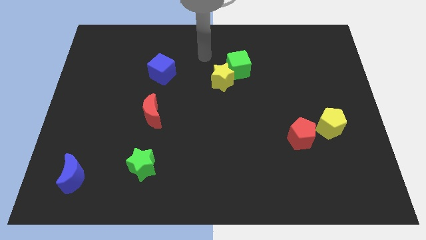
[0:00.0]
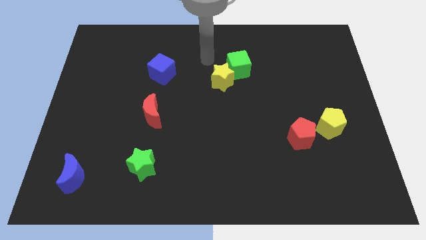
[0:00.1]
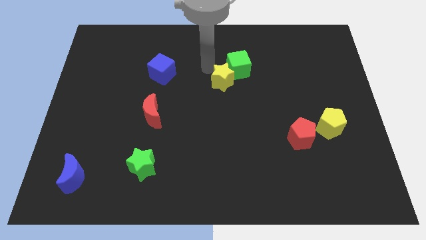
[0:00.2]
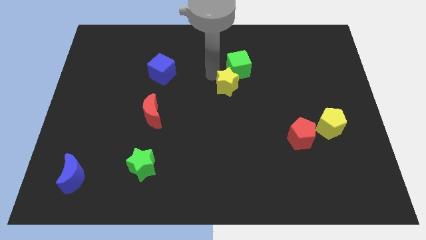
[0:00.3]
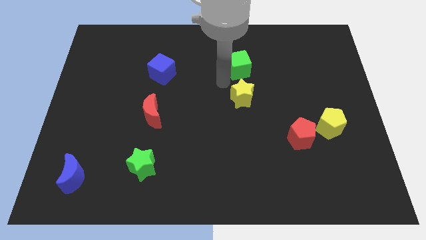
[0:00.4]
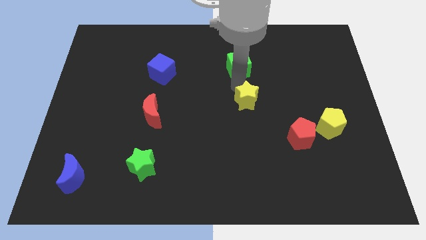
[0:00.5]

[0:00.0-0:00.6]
separate the green cube from the yellow star

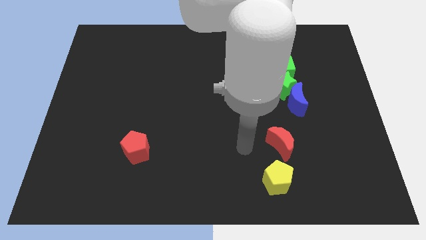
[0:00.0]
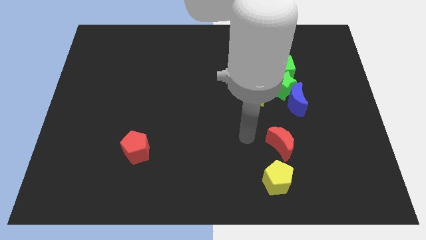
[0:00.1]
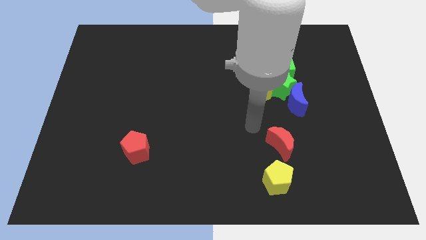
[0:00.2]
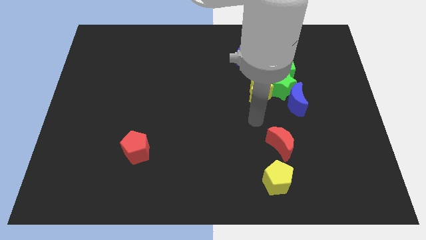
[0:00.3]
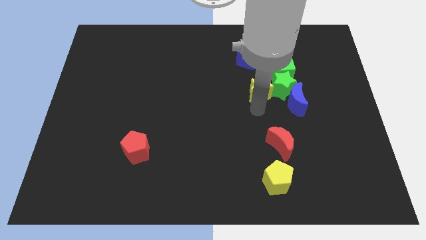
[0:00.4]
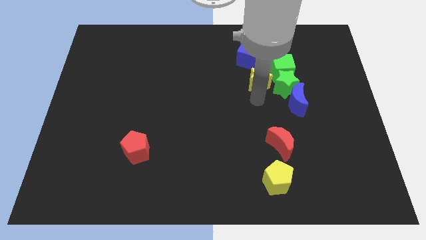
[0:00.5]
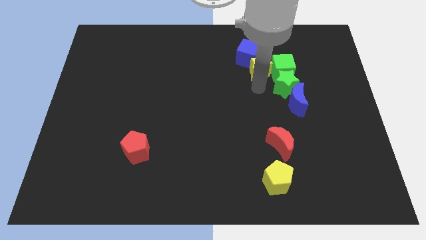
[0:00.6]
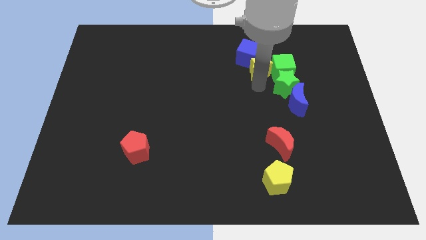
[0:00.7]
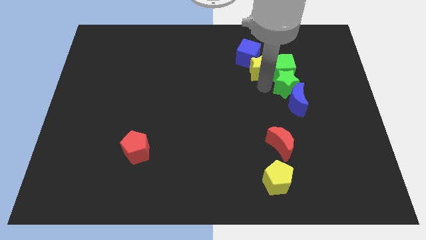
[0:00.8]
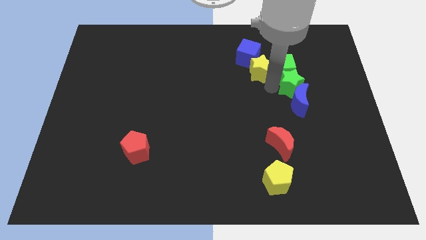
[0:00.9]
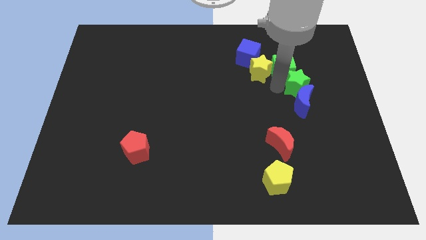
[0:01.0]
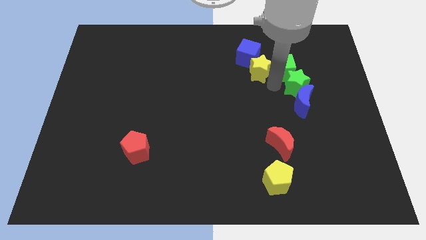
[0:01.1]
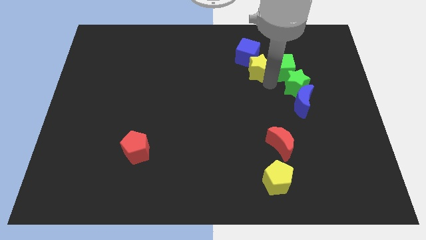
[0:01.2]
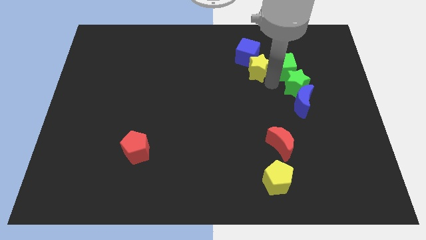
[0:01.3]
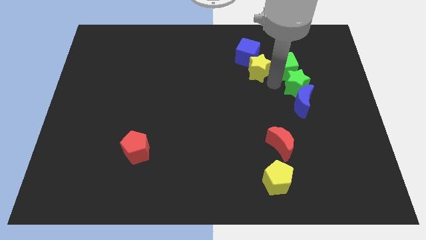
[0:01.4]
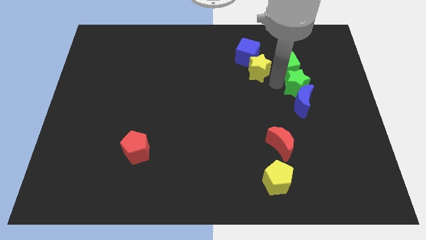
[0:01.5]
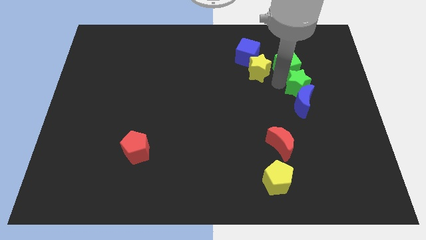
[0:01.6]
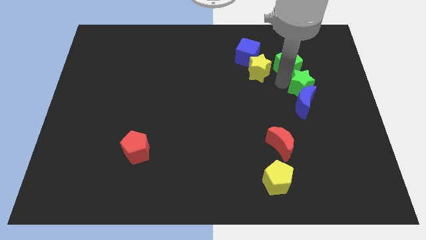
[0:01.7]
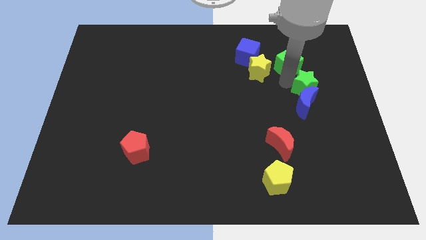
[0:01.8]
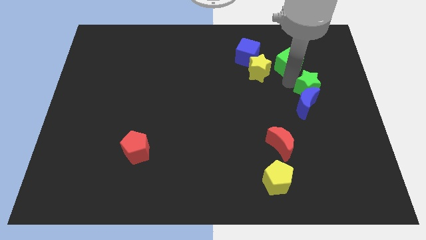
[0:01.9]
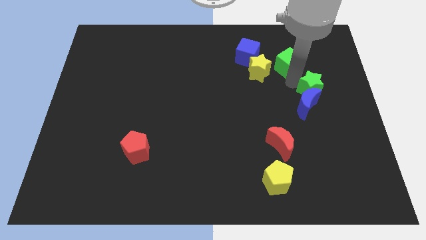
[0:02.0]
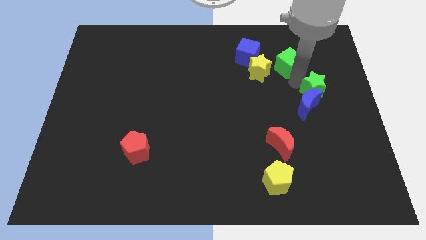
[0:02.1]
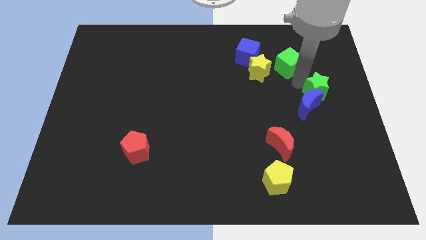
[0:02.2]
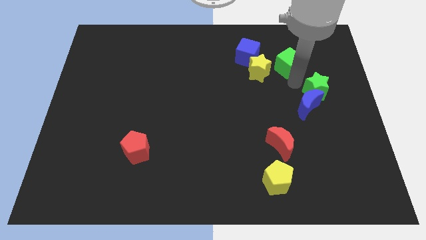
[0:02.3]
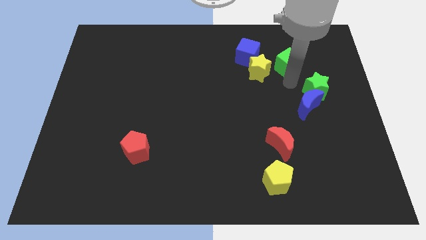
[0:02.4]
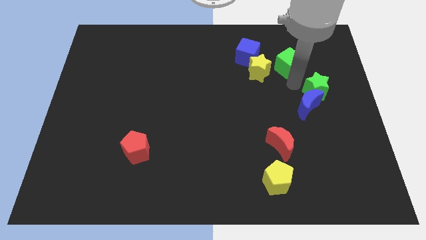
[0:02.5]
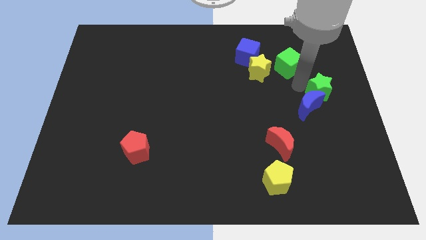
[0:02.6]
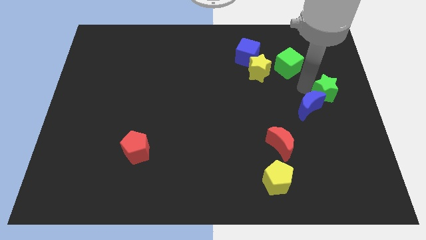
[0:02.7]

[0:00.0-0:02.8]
separate the green star from the group of blocks

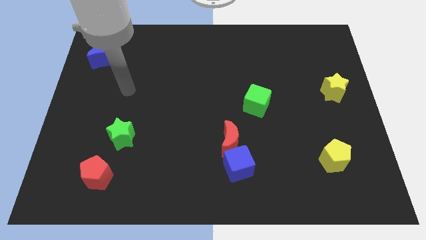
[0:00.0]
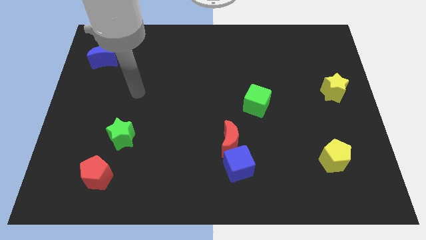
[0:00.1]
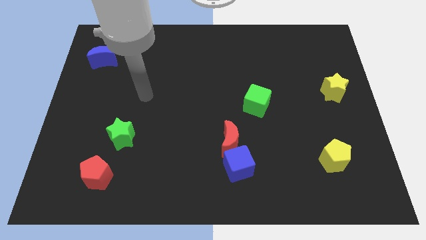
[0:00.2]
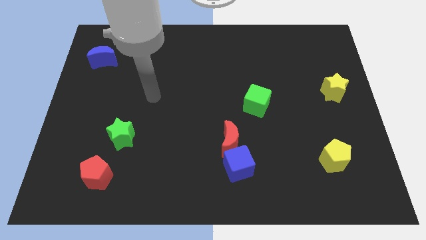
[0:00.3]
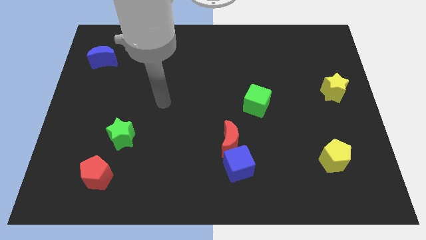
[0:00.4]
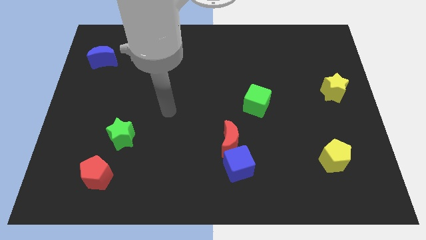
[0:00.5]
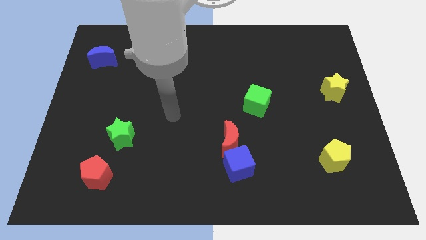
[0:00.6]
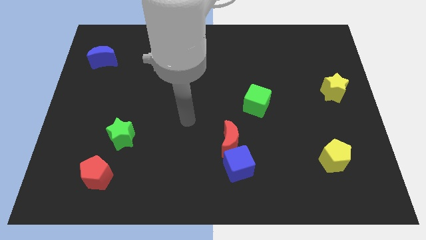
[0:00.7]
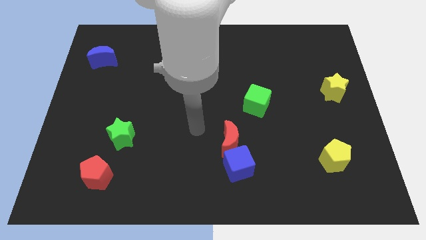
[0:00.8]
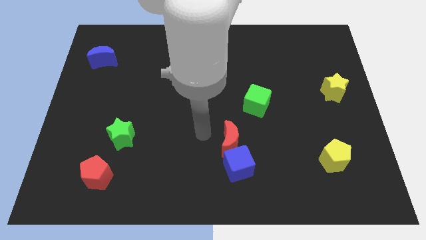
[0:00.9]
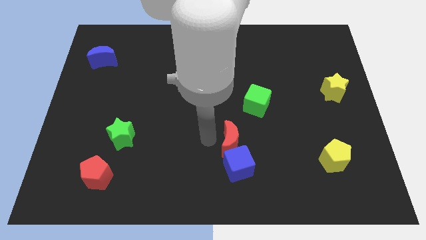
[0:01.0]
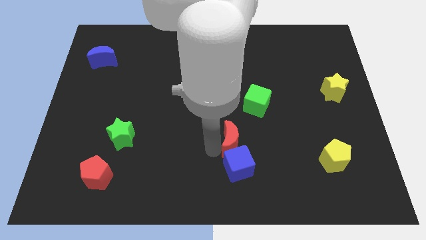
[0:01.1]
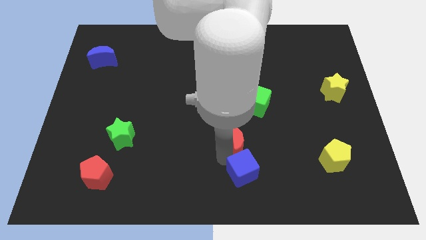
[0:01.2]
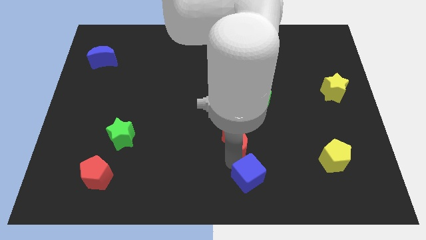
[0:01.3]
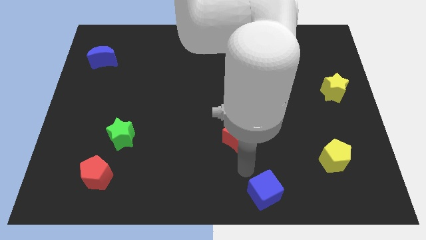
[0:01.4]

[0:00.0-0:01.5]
move the red moon away from the blue cube

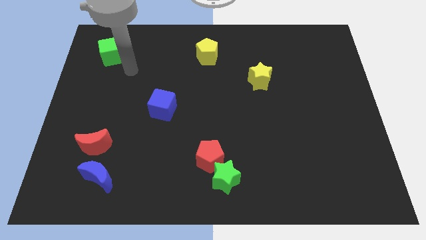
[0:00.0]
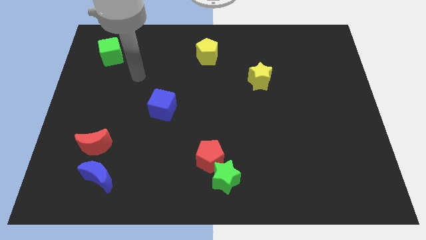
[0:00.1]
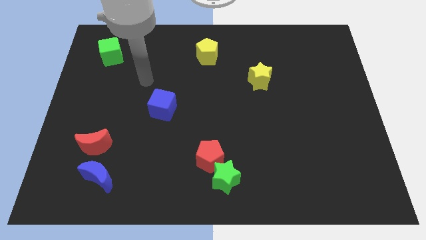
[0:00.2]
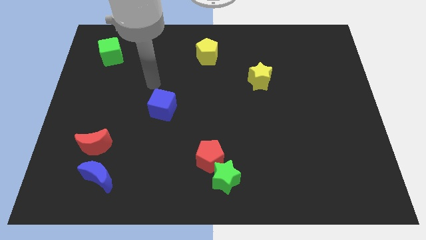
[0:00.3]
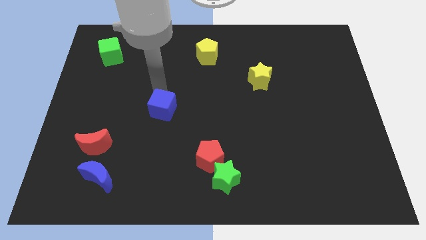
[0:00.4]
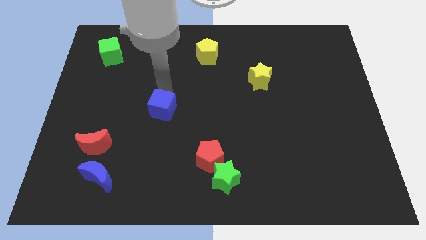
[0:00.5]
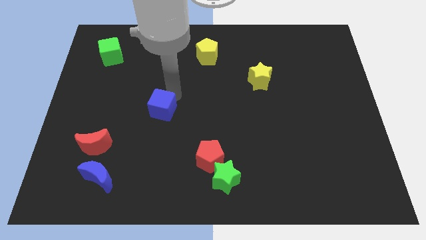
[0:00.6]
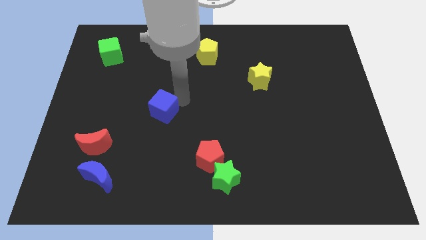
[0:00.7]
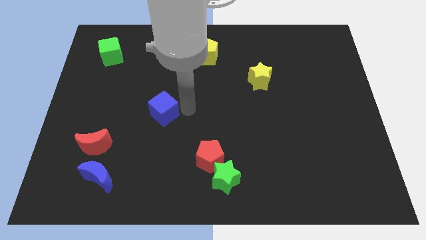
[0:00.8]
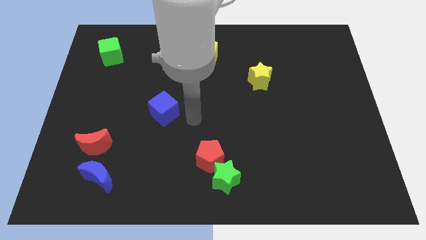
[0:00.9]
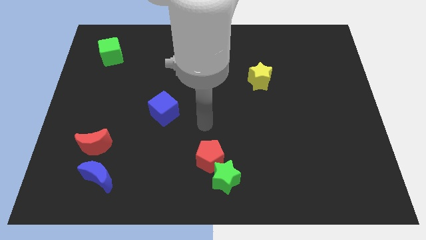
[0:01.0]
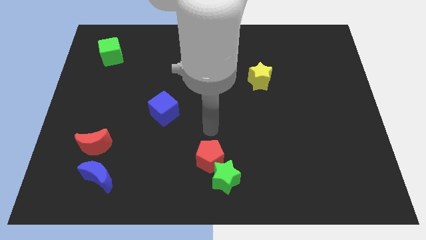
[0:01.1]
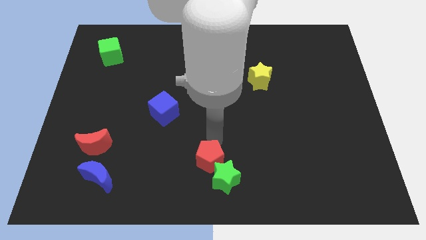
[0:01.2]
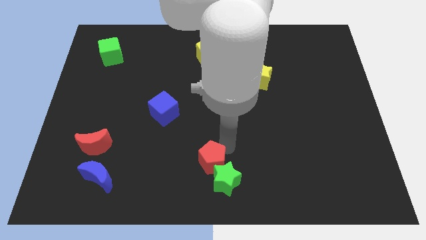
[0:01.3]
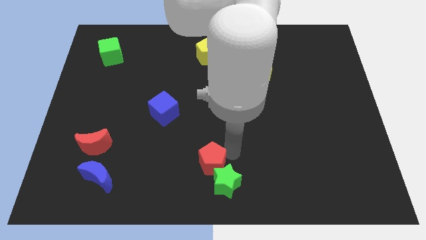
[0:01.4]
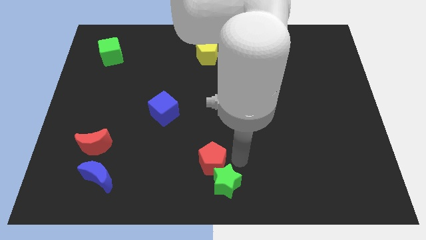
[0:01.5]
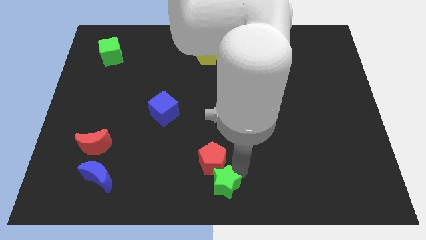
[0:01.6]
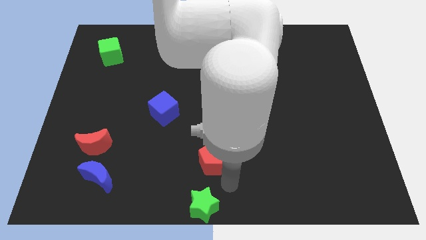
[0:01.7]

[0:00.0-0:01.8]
separate the red pentagon from the green star

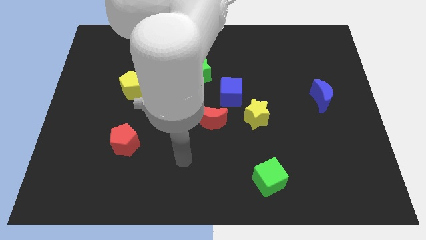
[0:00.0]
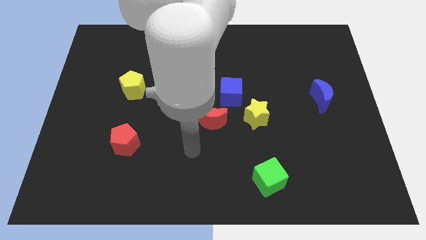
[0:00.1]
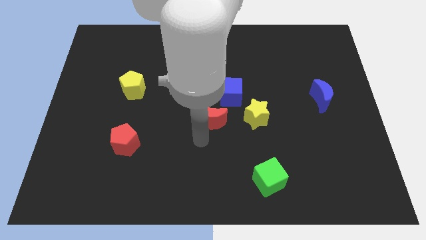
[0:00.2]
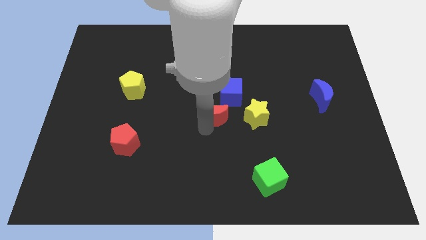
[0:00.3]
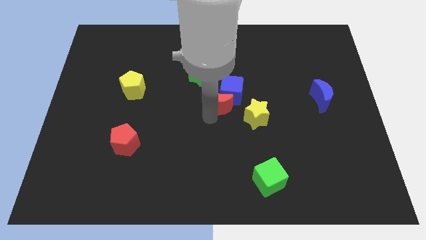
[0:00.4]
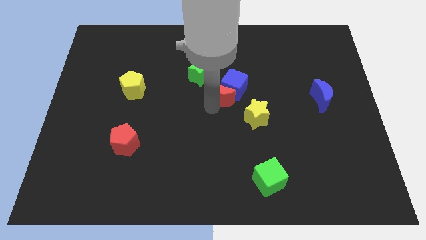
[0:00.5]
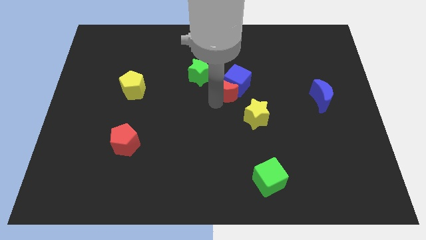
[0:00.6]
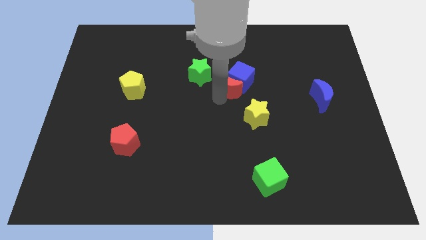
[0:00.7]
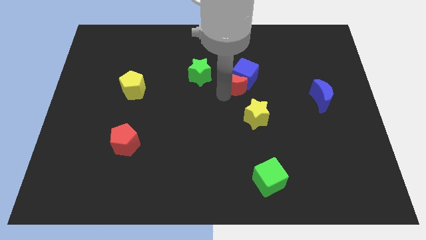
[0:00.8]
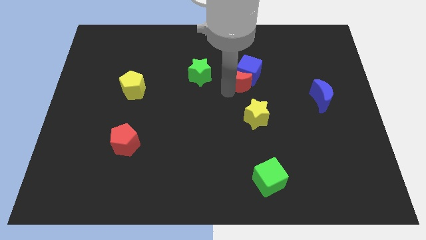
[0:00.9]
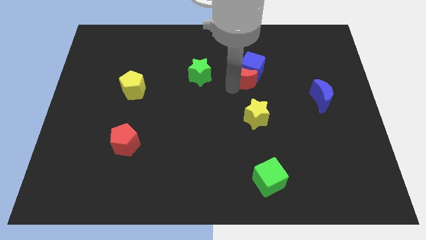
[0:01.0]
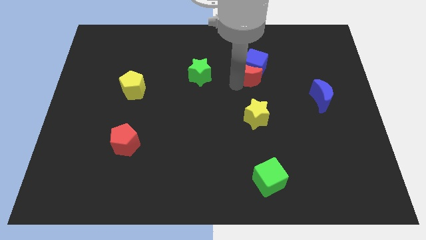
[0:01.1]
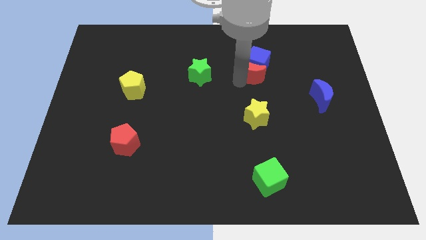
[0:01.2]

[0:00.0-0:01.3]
separate the blue cube from the clump

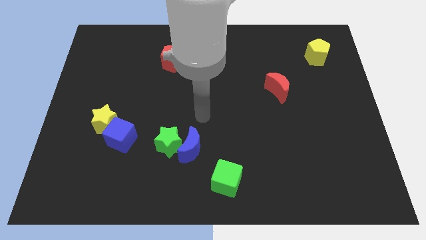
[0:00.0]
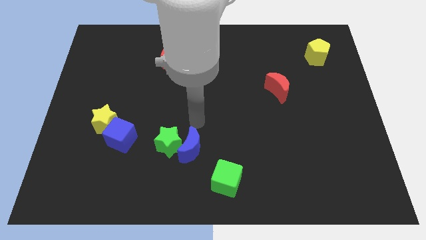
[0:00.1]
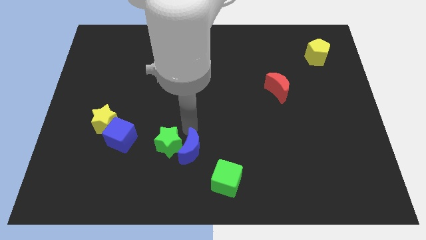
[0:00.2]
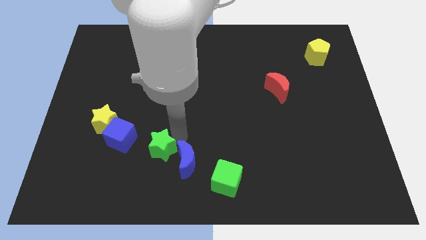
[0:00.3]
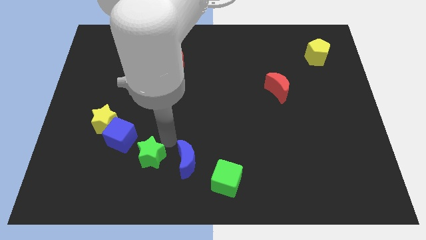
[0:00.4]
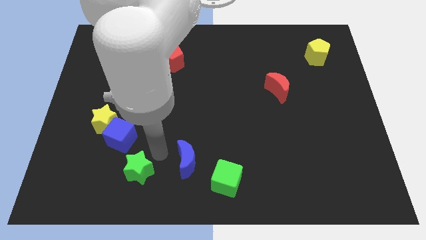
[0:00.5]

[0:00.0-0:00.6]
separate the blue moon from the green star

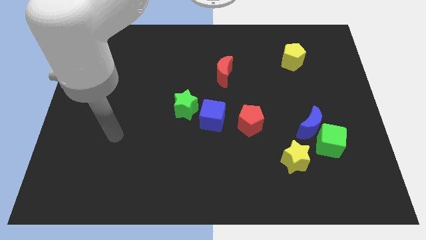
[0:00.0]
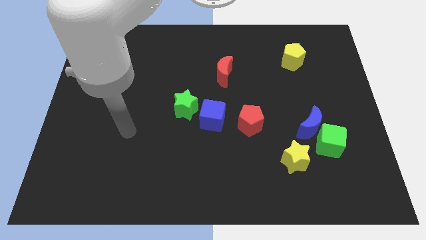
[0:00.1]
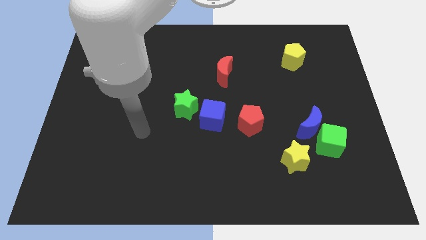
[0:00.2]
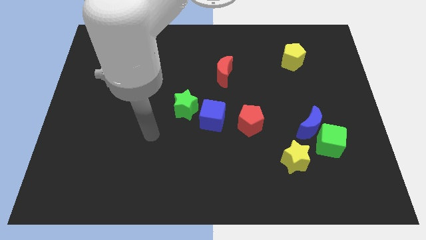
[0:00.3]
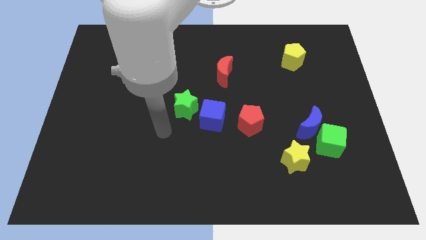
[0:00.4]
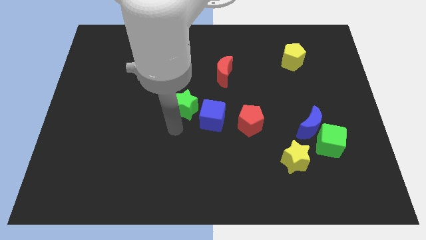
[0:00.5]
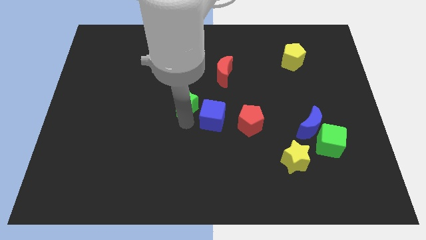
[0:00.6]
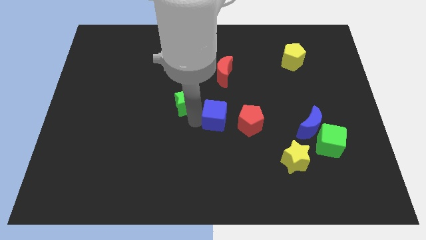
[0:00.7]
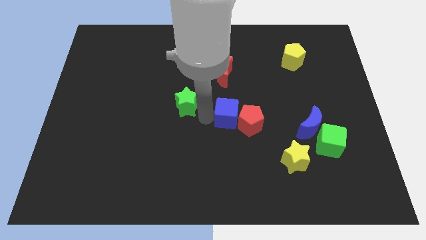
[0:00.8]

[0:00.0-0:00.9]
pull the green star apart from the blue cube
